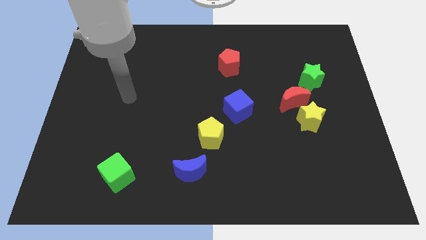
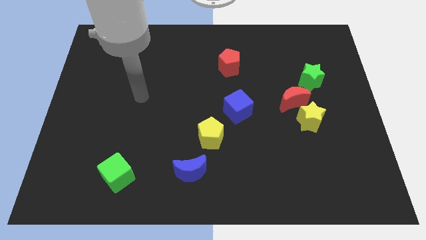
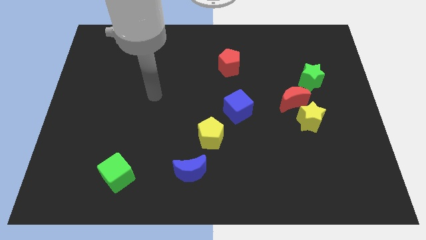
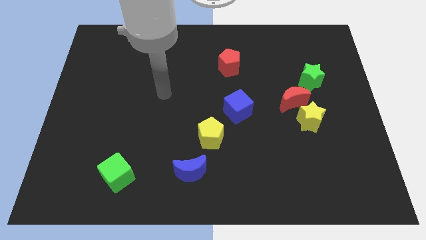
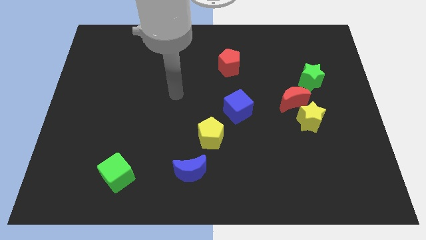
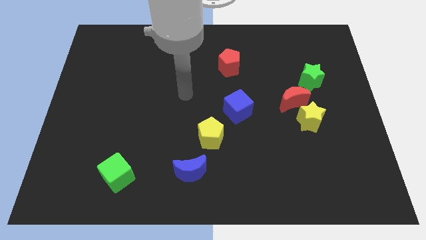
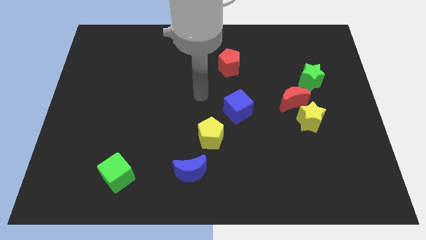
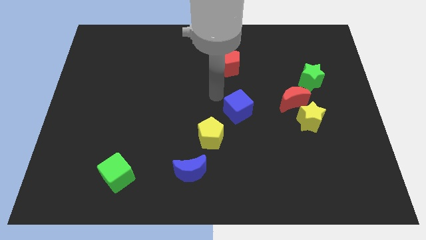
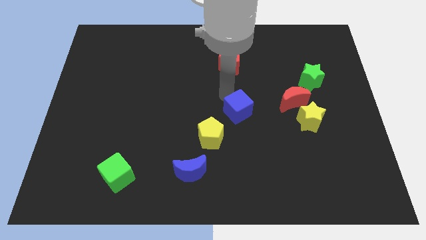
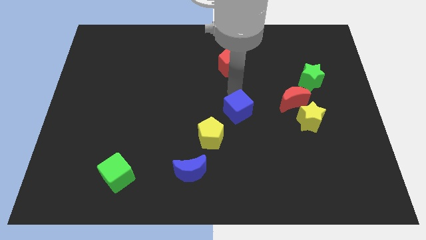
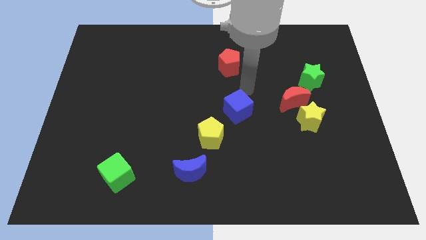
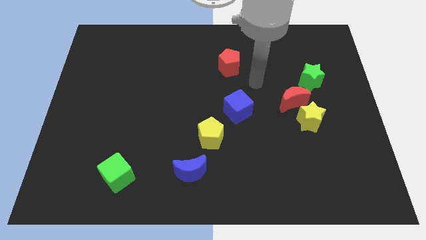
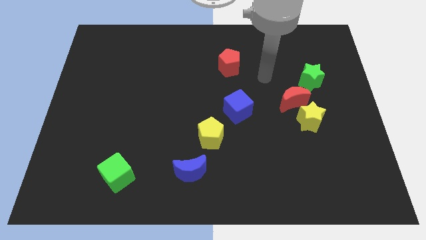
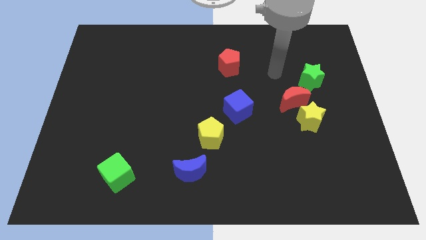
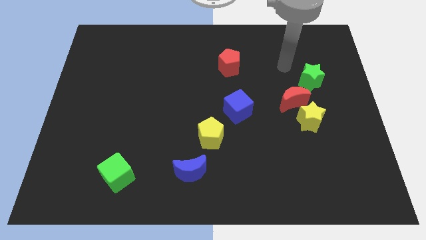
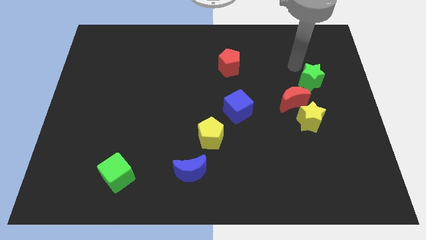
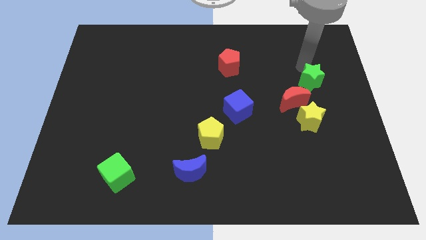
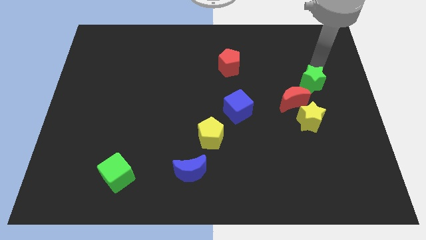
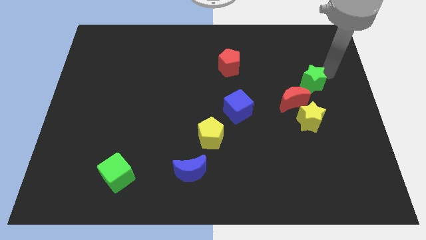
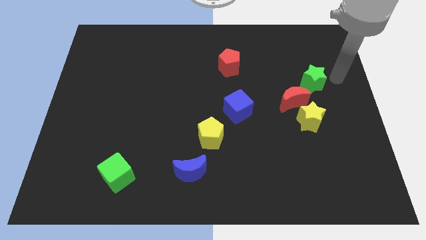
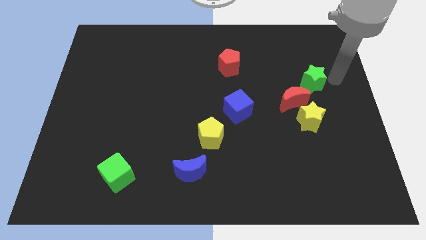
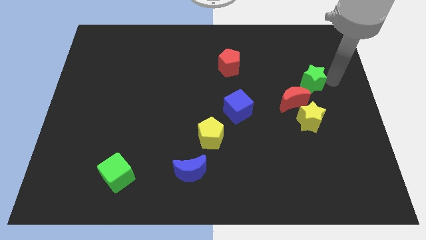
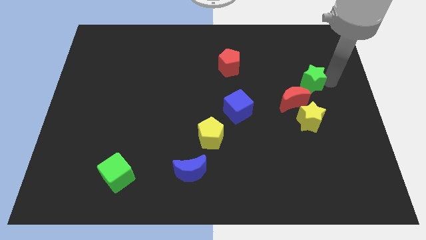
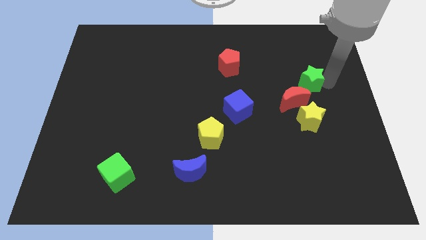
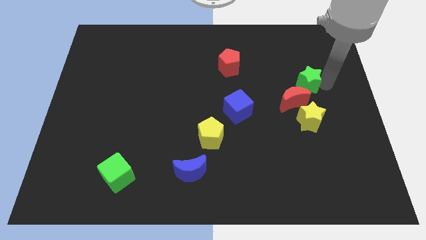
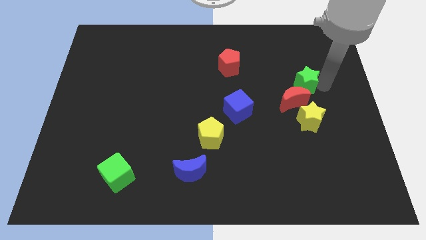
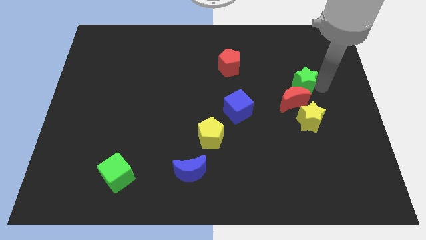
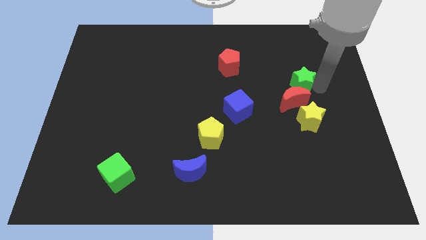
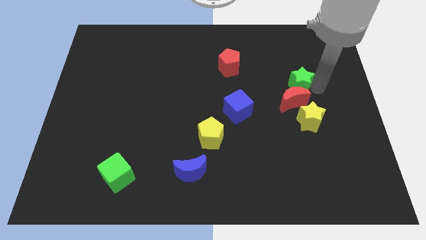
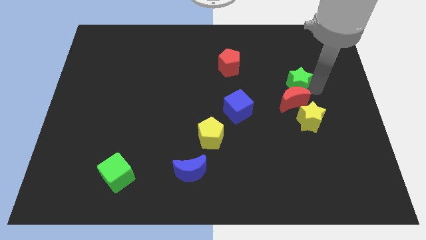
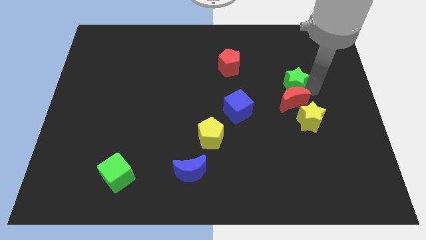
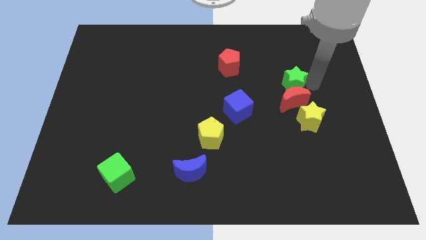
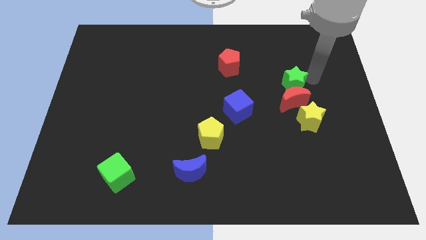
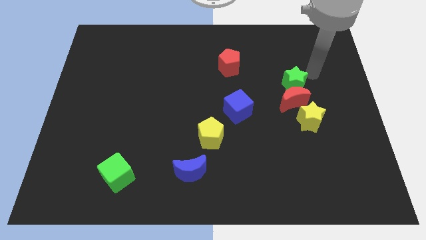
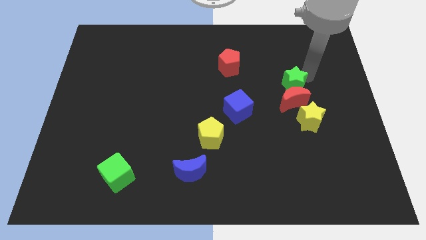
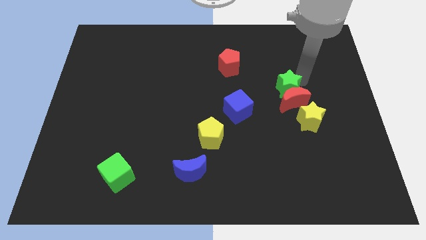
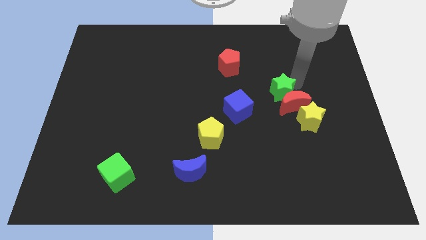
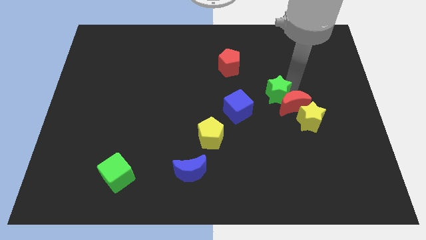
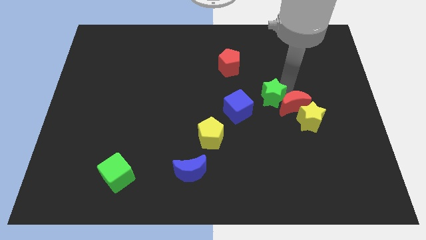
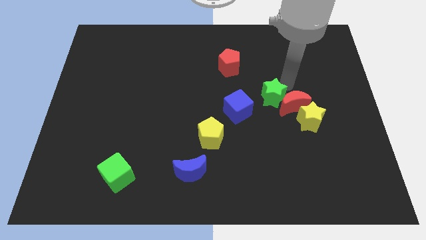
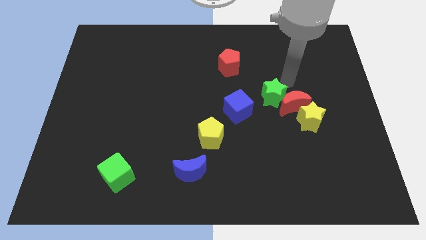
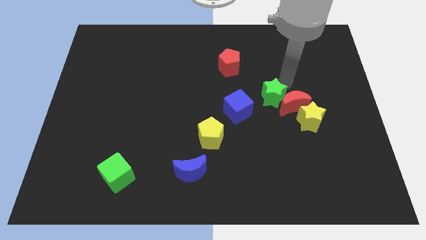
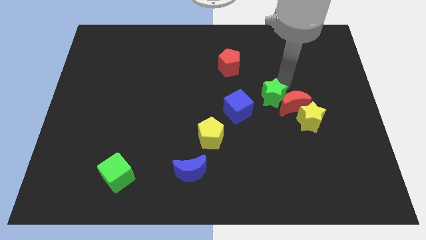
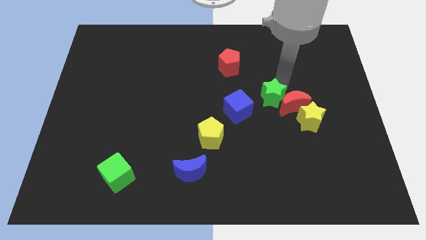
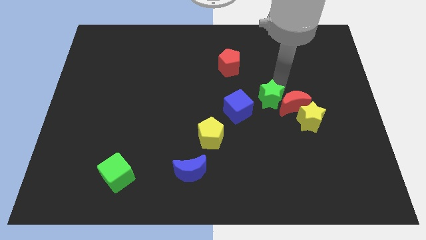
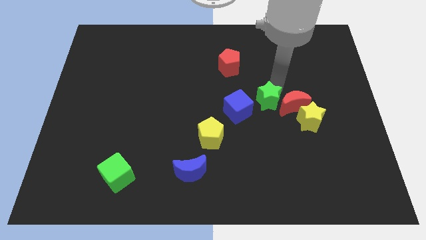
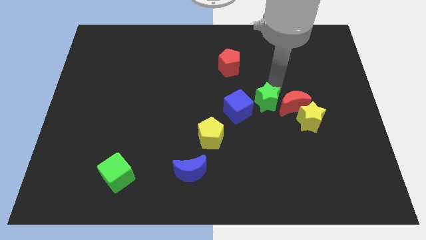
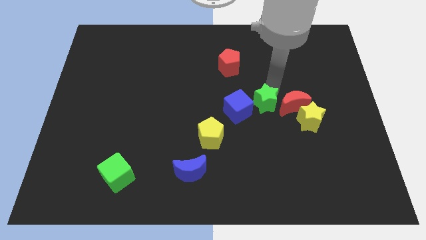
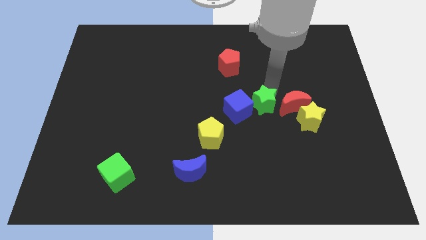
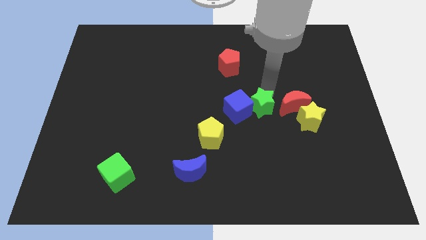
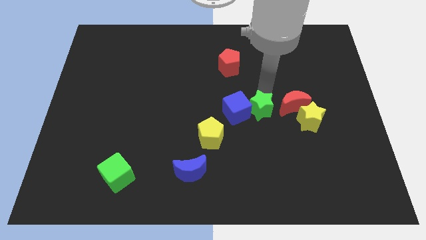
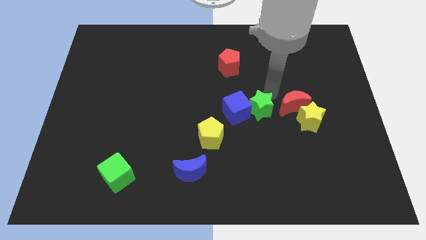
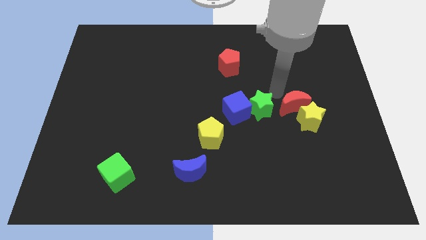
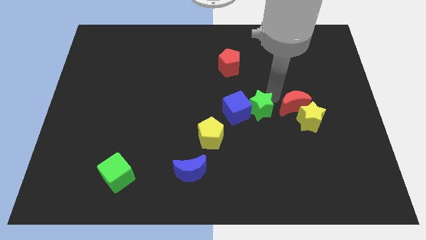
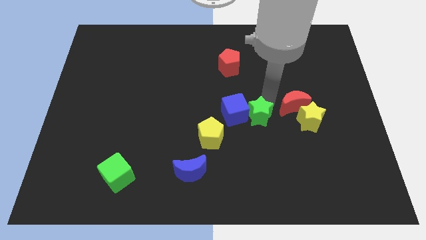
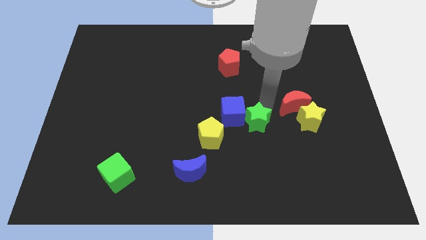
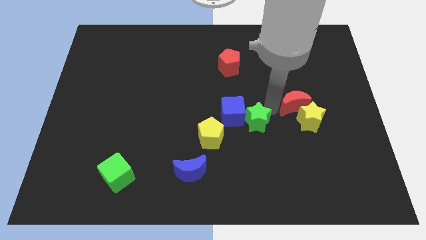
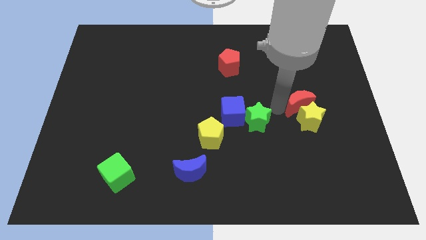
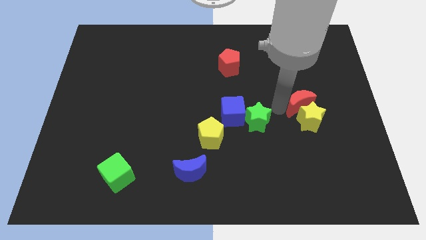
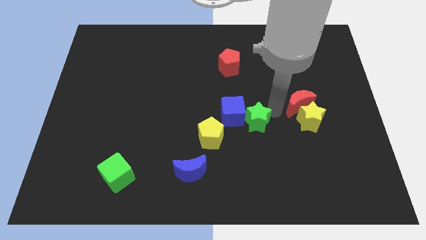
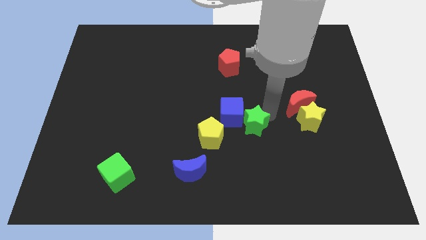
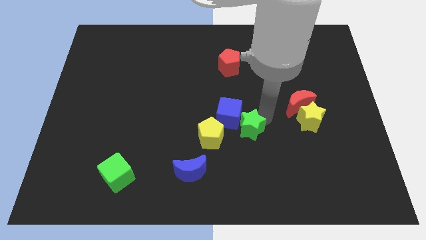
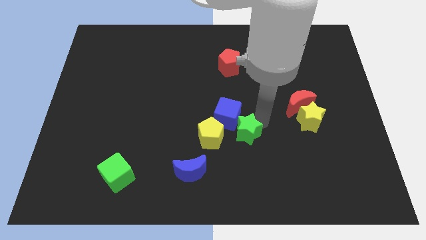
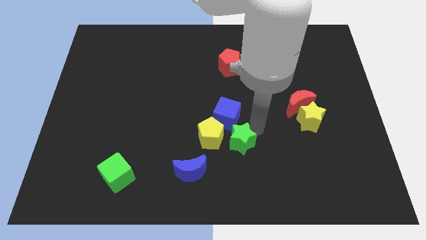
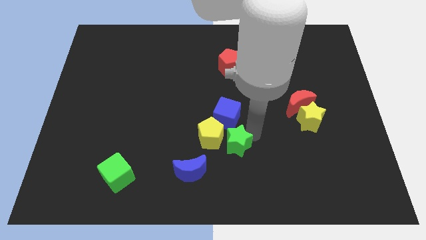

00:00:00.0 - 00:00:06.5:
push the green star to the yellow pentagon

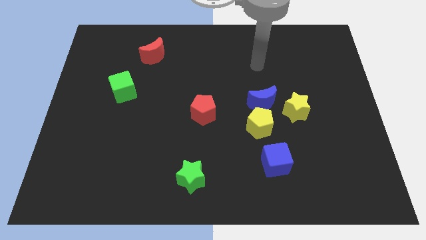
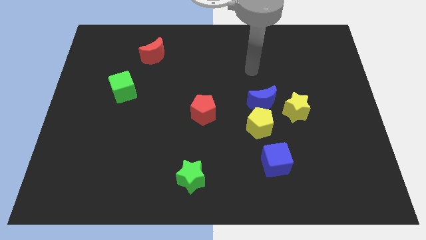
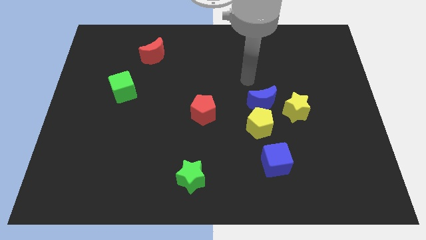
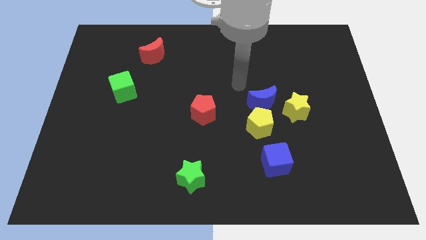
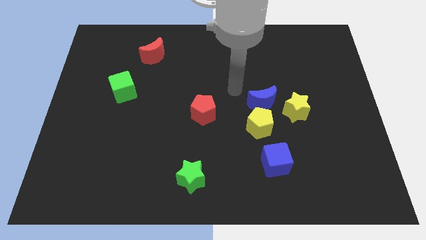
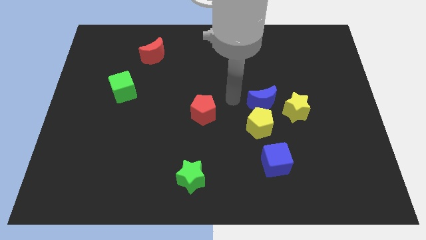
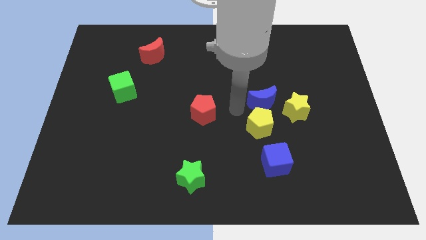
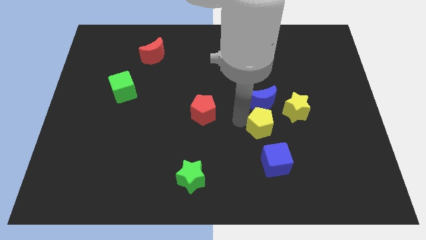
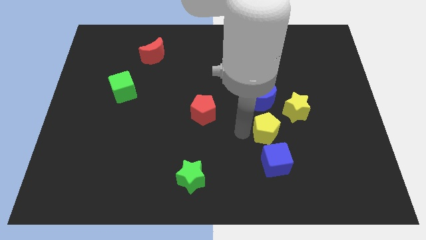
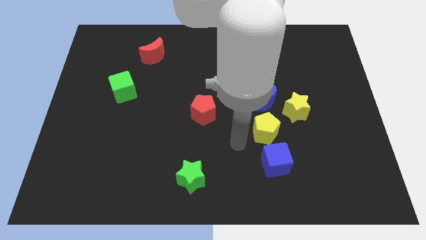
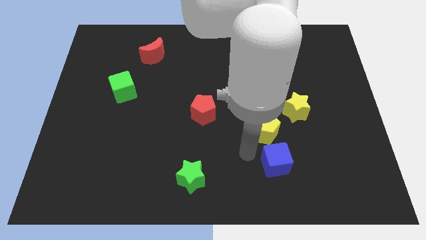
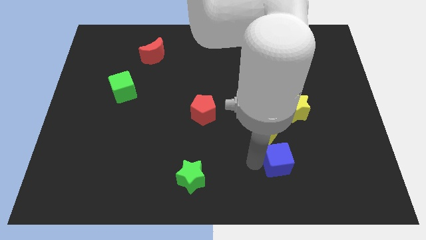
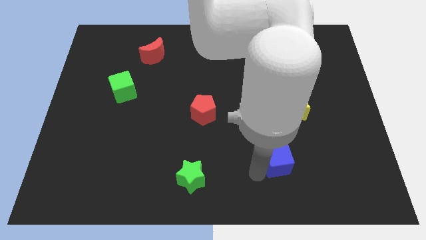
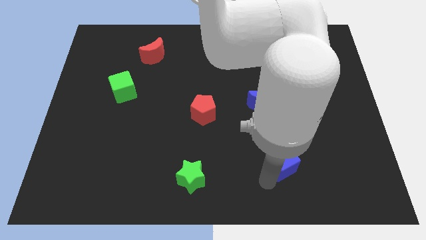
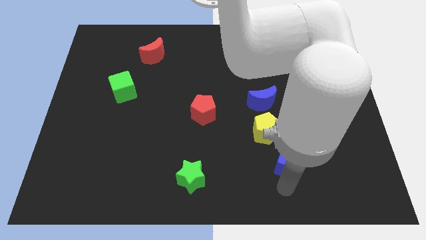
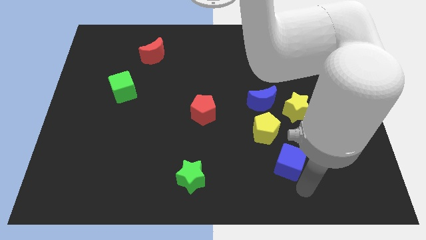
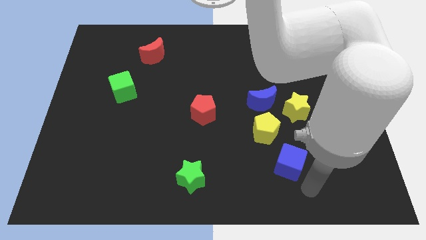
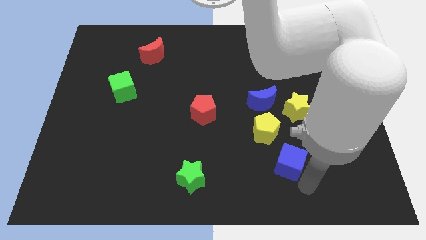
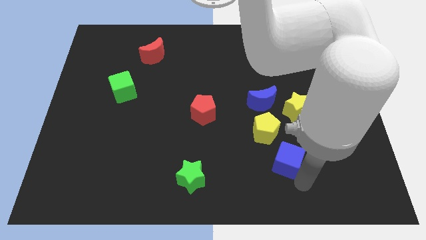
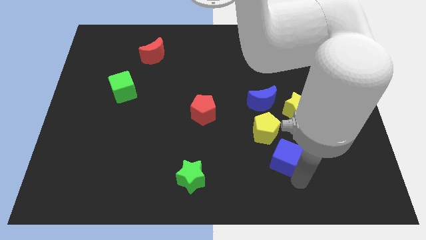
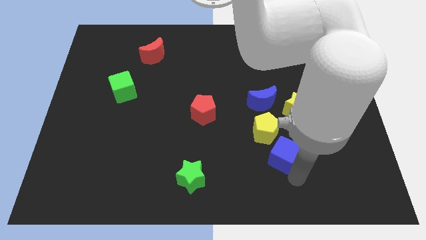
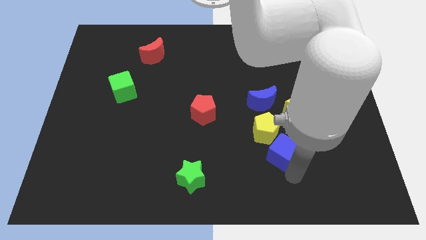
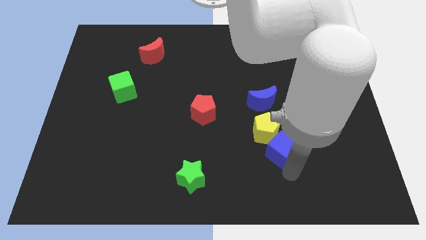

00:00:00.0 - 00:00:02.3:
put the blue cube close to the yellow pentagon
